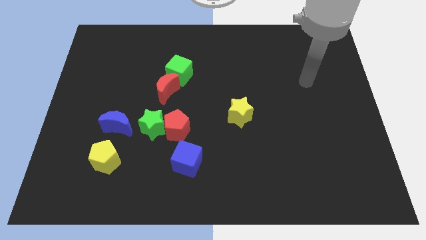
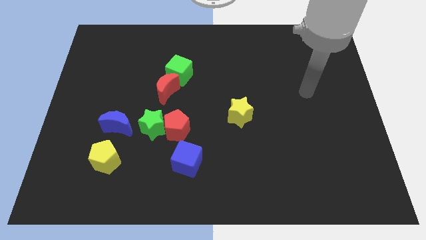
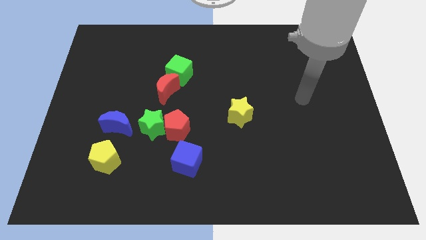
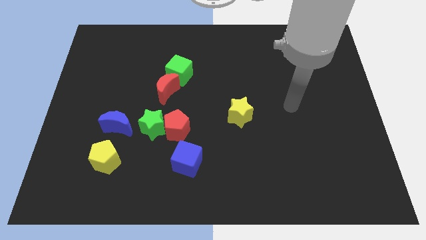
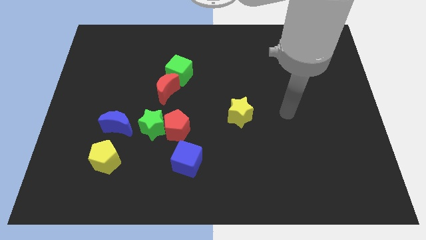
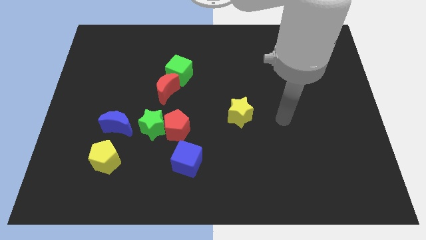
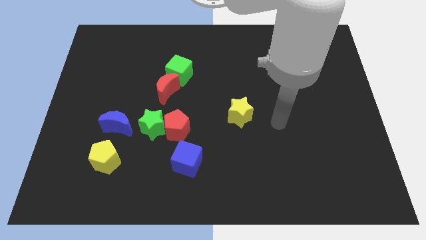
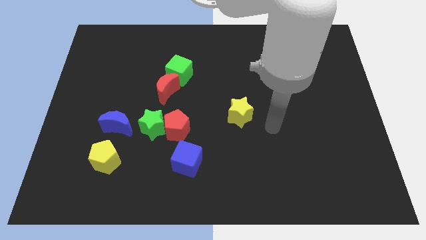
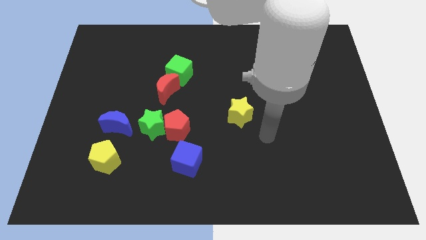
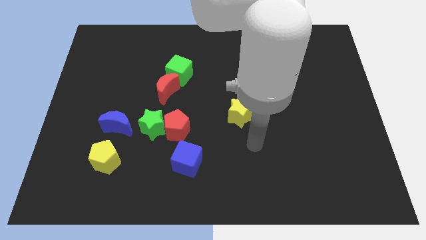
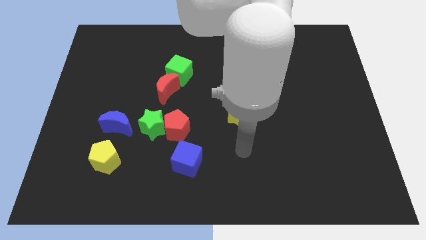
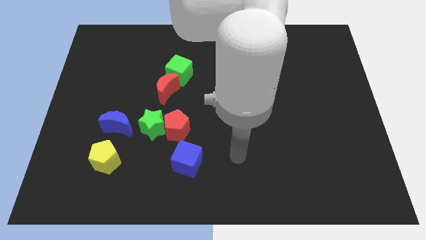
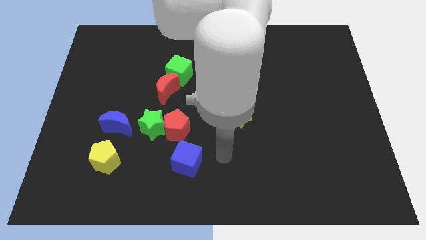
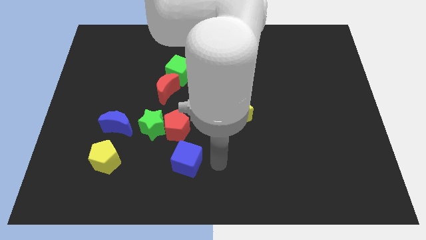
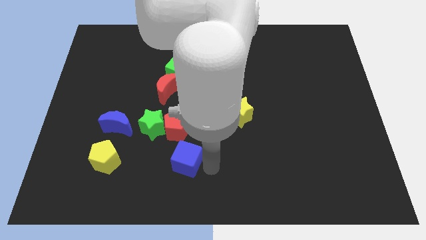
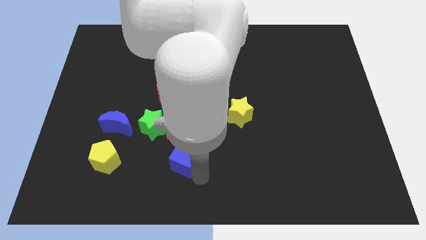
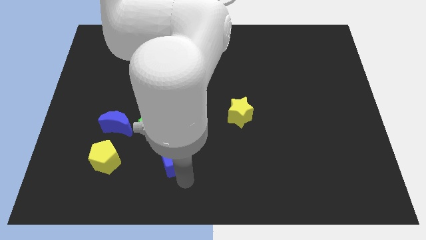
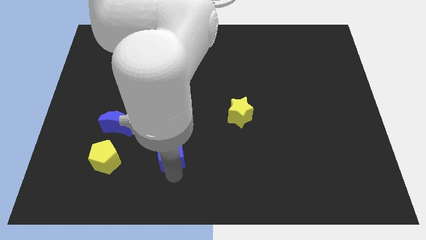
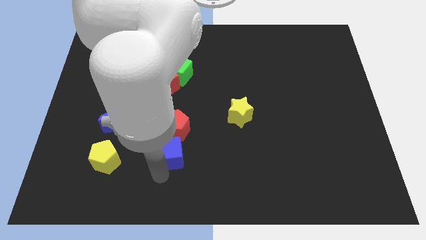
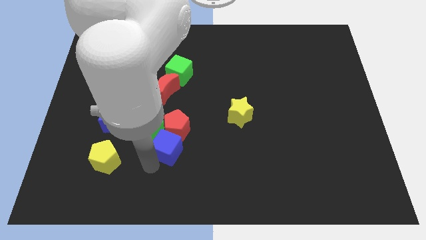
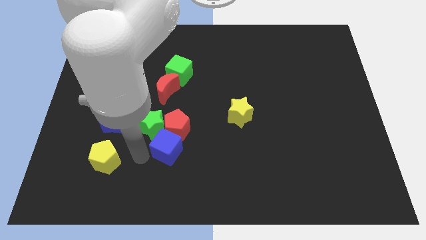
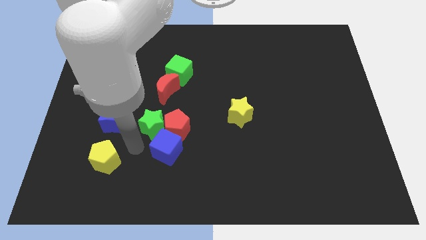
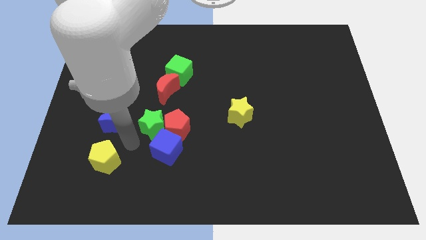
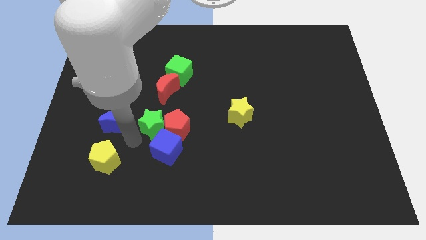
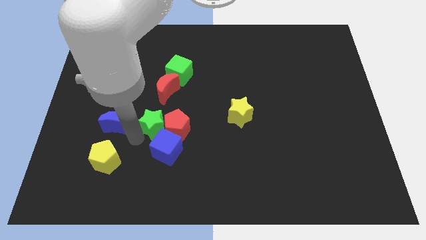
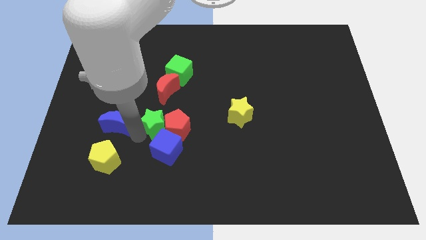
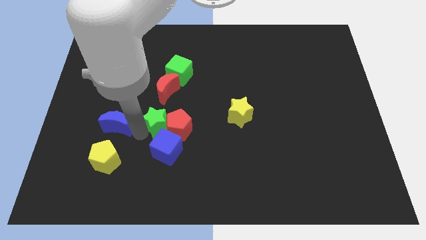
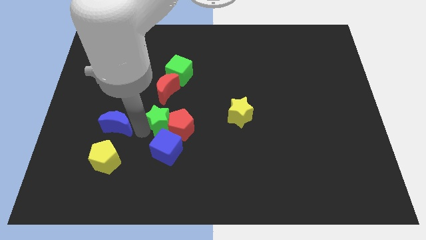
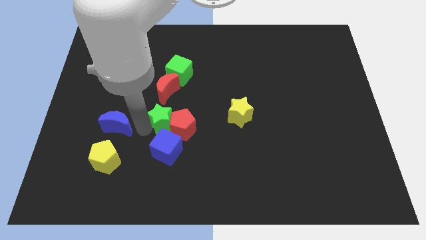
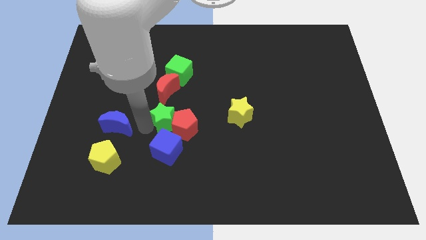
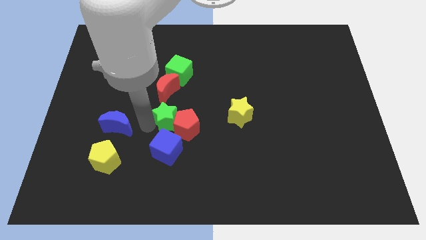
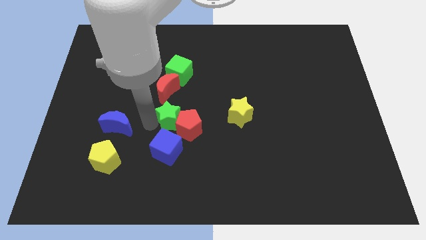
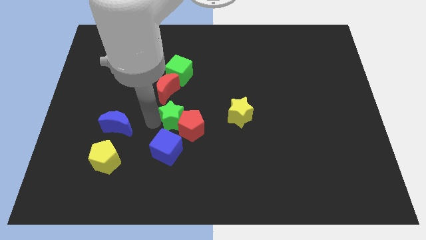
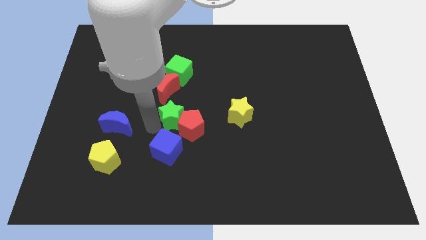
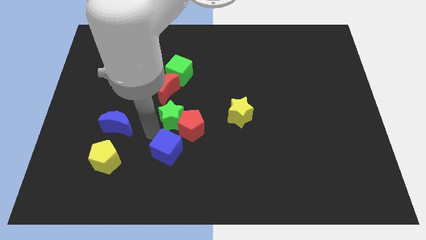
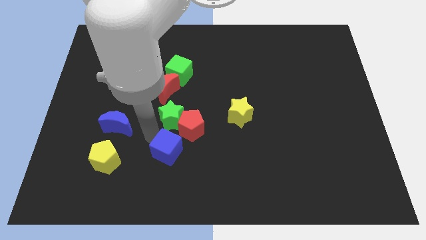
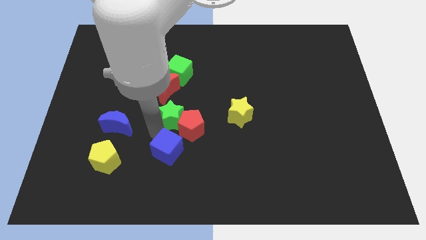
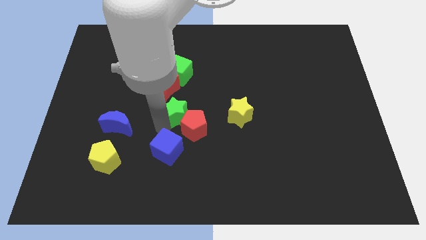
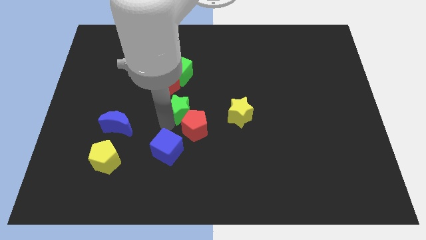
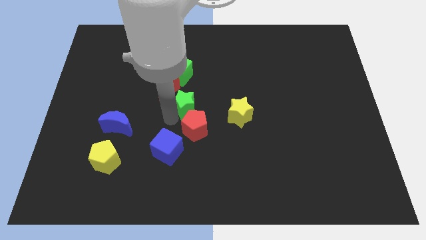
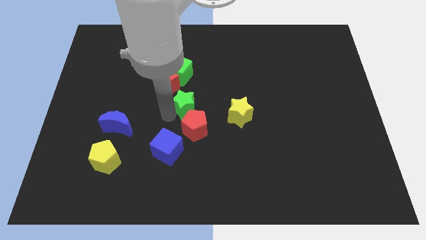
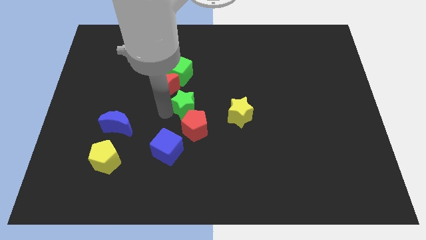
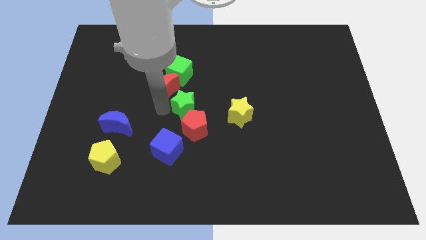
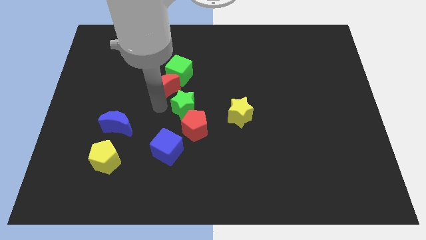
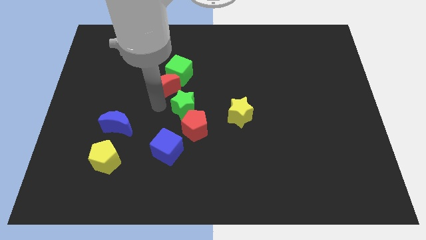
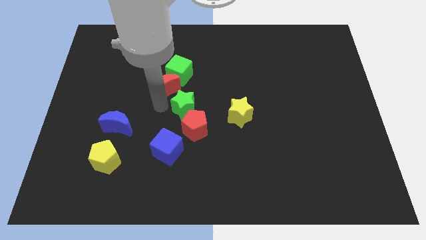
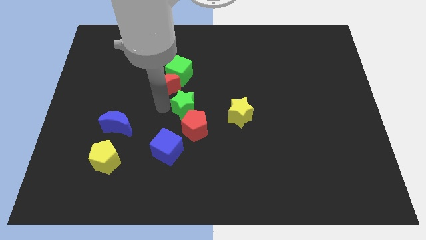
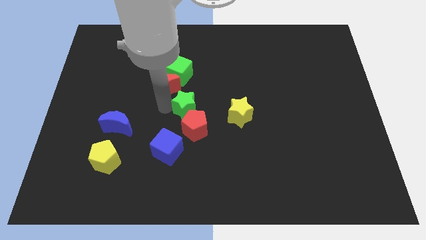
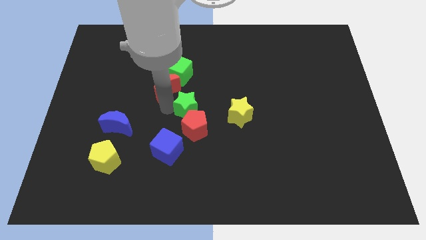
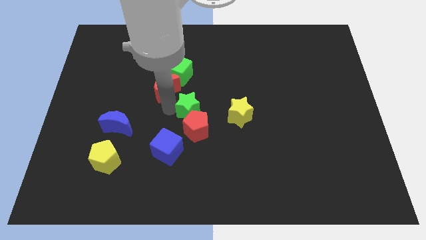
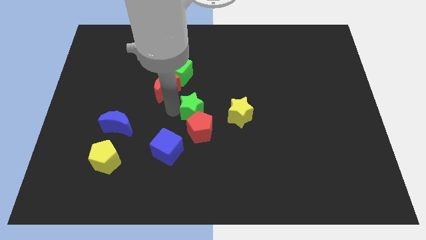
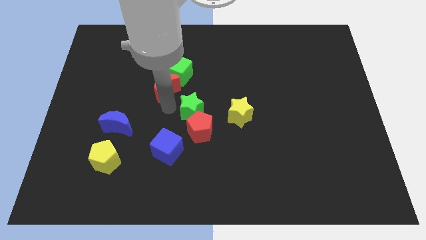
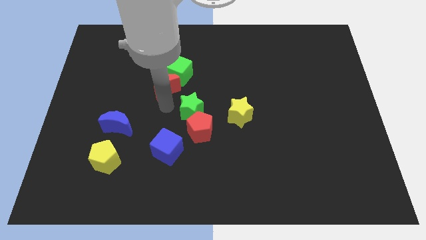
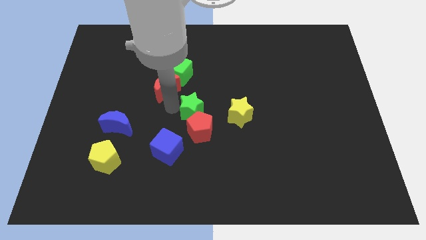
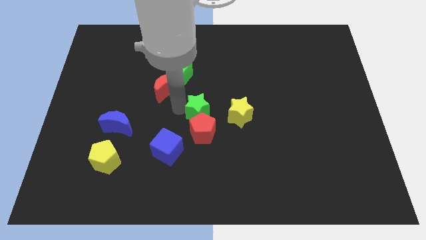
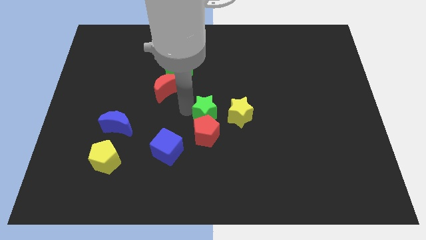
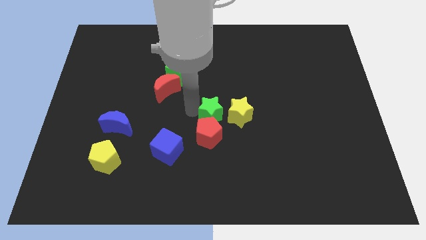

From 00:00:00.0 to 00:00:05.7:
push the green star next to the yellow star

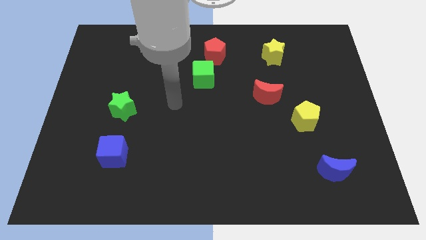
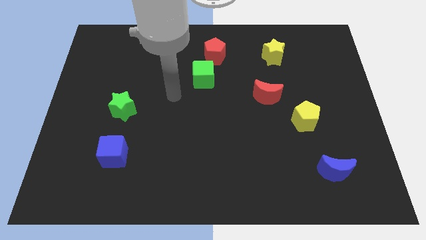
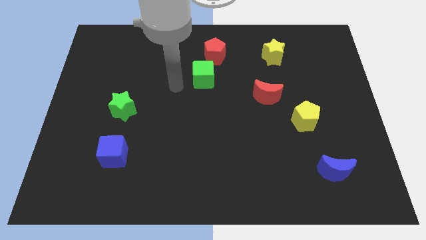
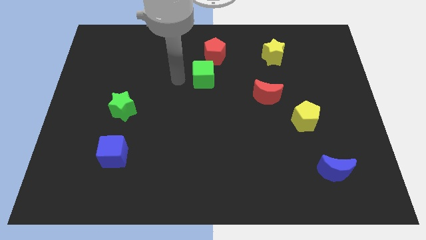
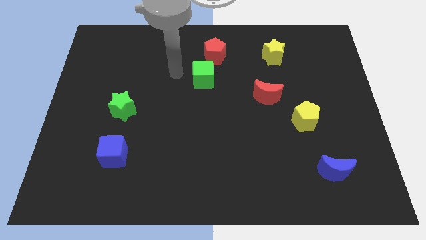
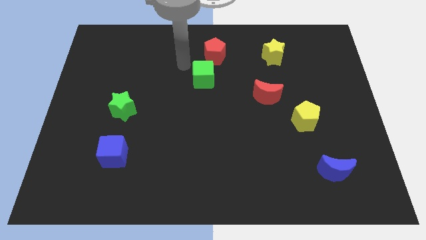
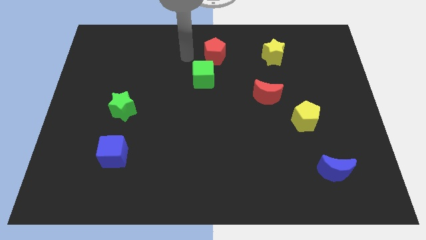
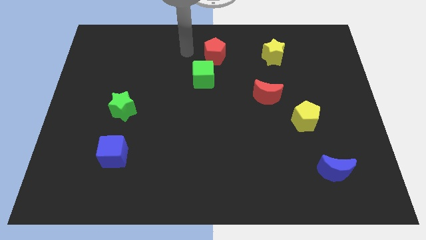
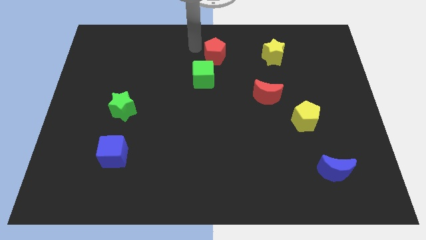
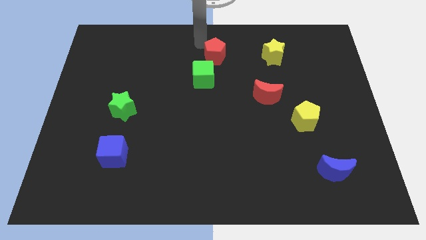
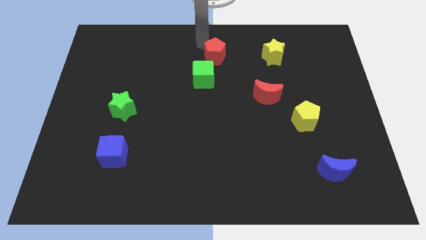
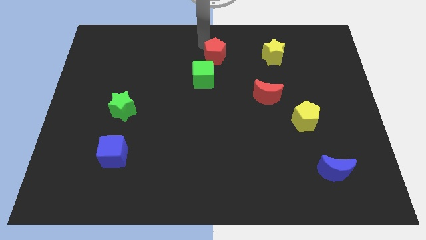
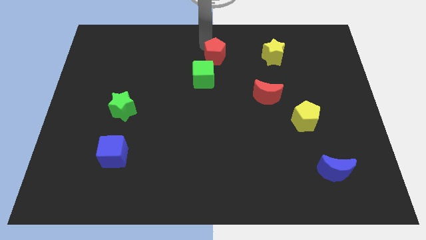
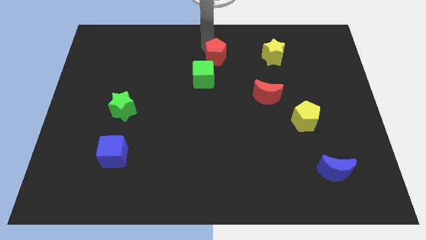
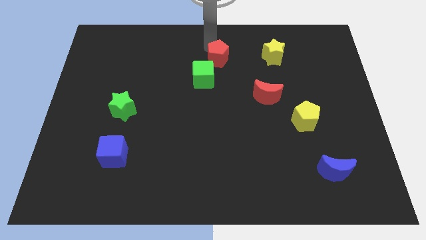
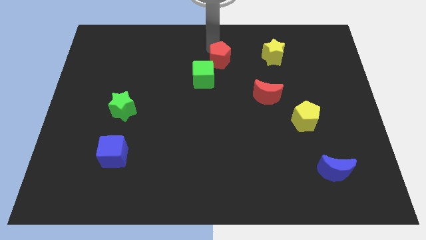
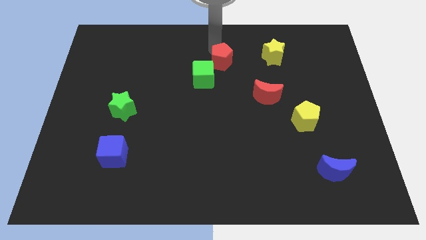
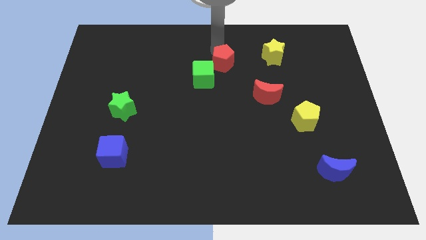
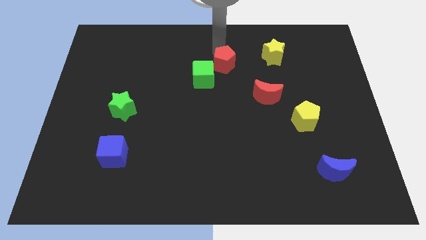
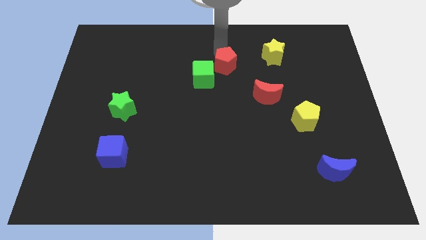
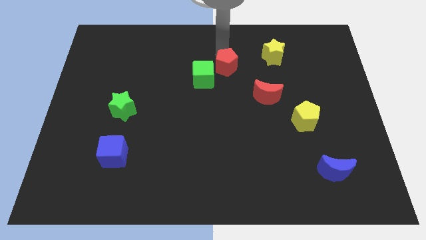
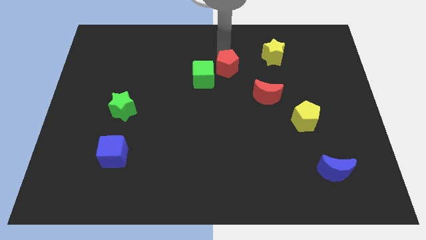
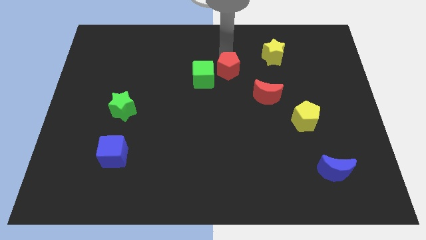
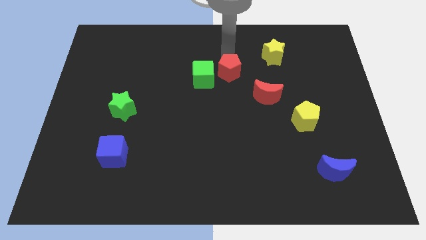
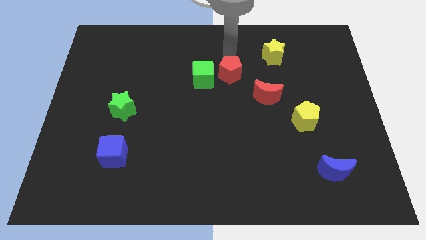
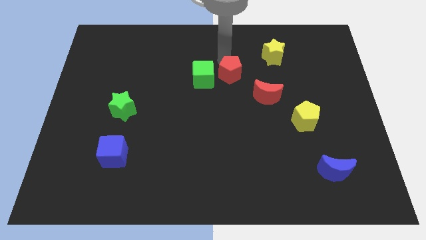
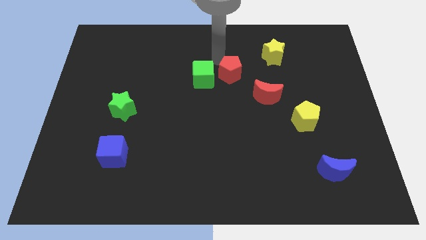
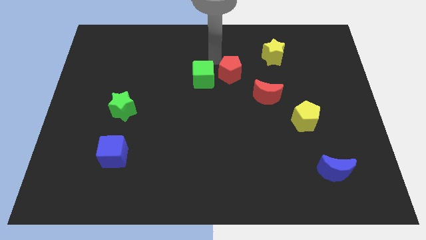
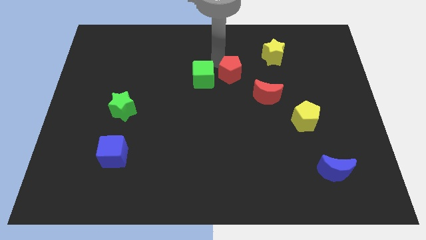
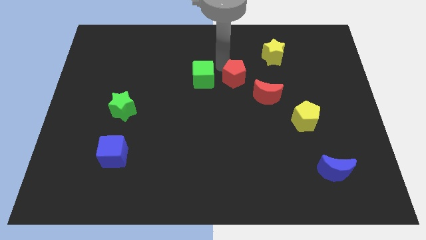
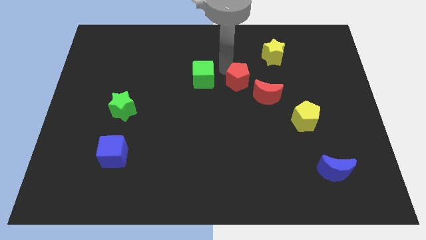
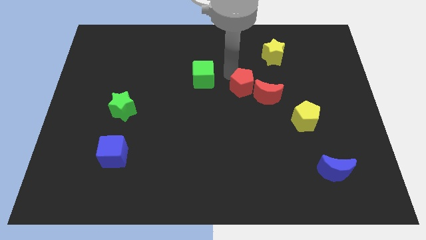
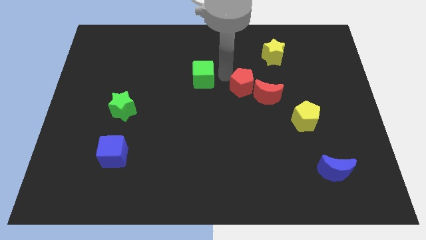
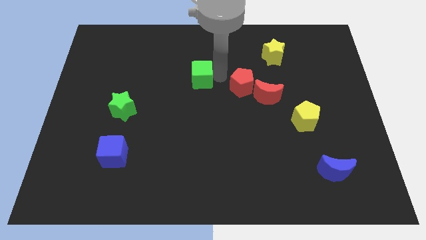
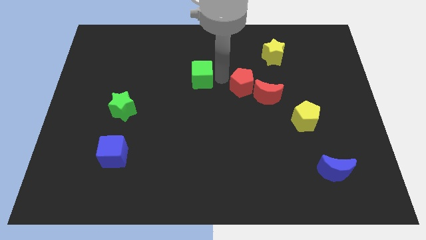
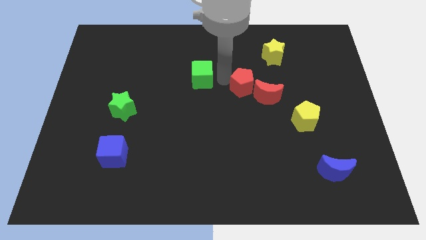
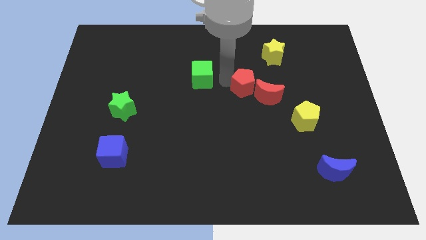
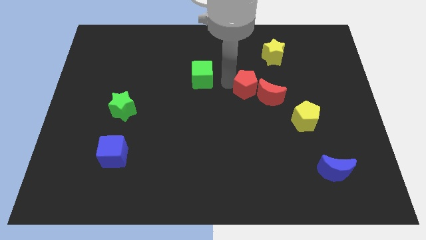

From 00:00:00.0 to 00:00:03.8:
push the red pentagon towards the red moon
